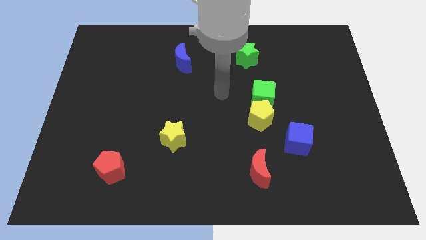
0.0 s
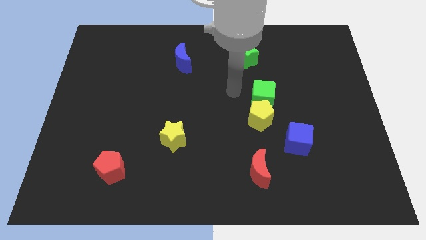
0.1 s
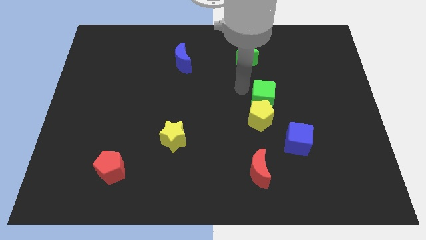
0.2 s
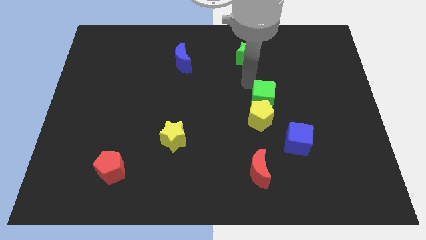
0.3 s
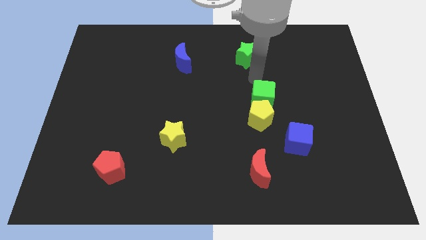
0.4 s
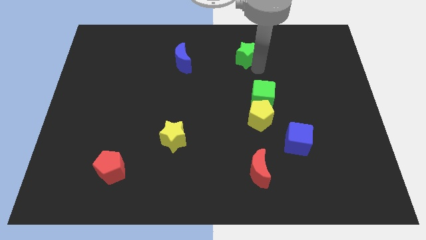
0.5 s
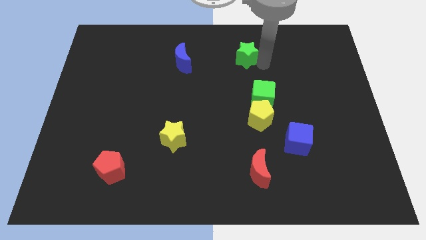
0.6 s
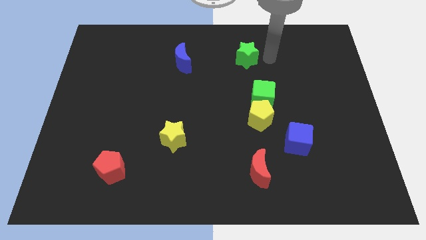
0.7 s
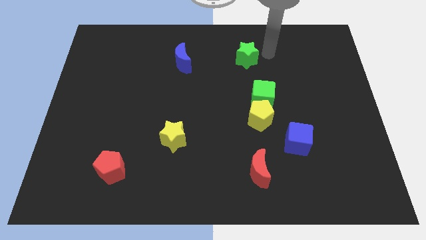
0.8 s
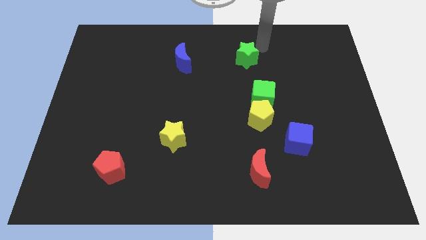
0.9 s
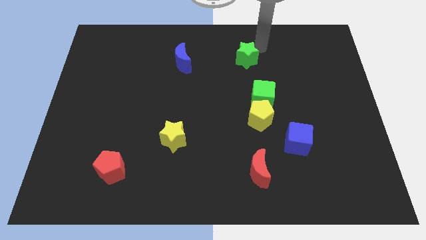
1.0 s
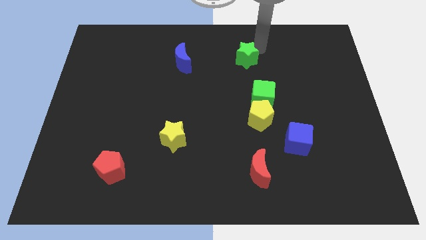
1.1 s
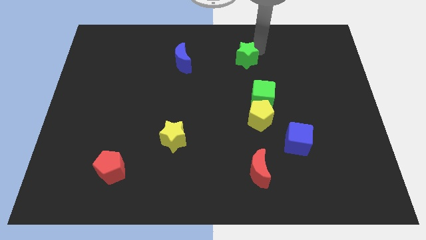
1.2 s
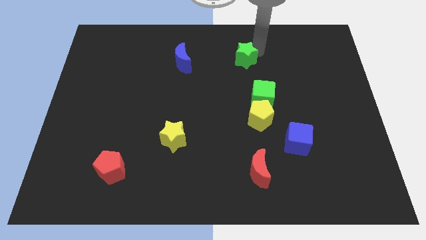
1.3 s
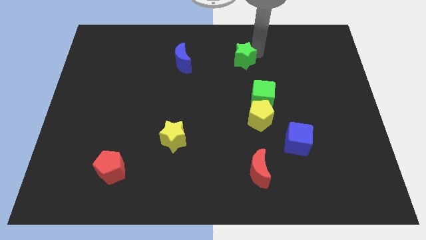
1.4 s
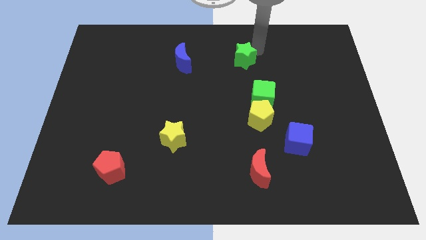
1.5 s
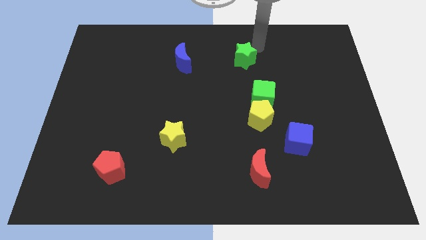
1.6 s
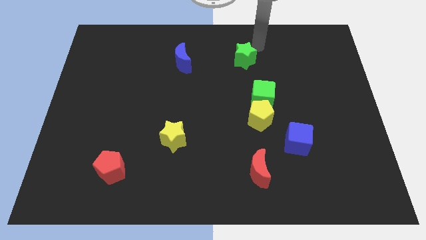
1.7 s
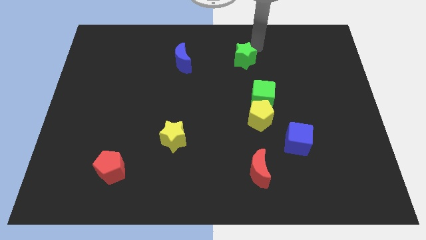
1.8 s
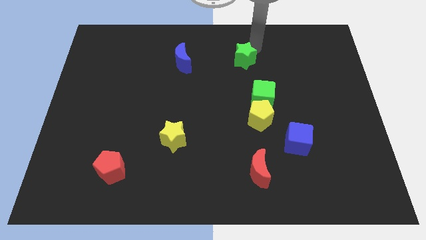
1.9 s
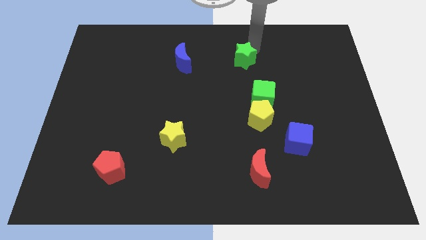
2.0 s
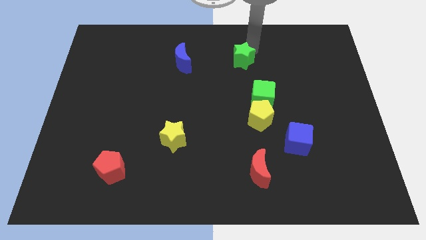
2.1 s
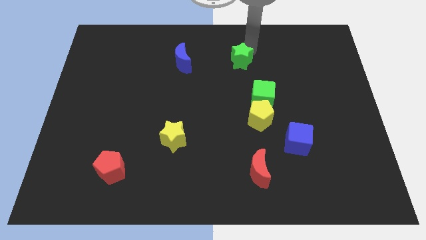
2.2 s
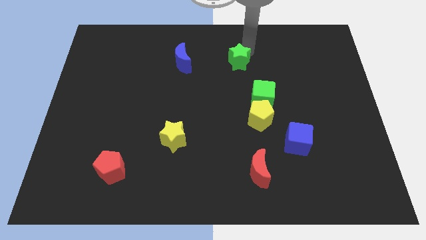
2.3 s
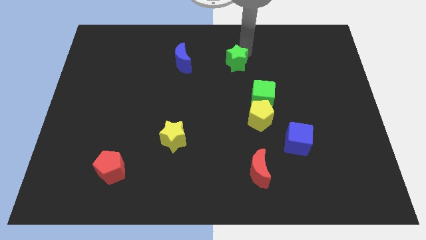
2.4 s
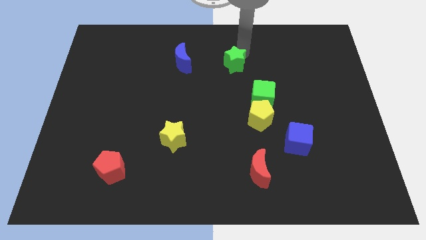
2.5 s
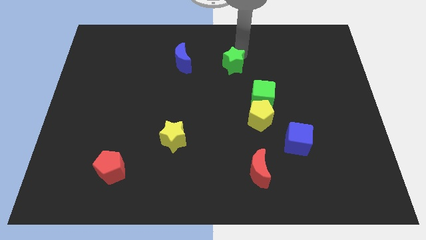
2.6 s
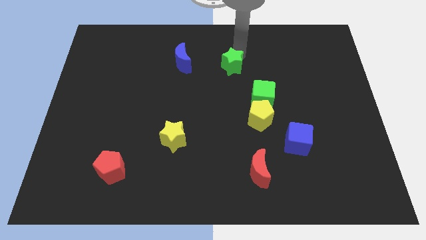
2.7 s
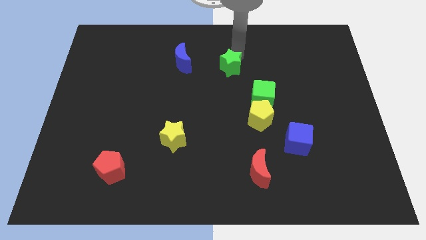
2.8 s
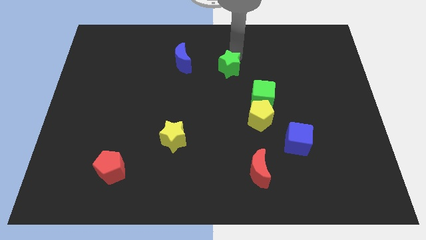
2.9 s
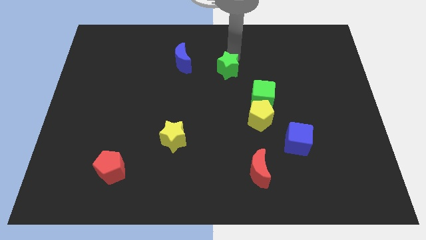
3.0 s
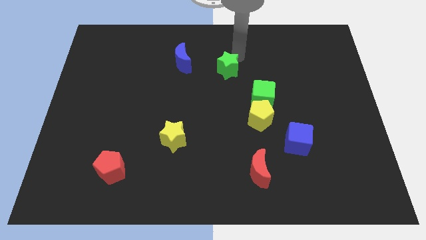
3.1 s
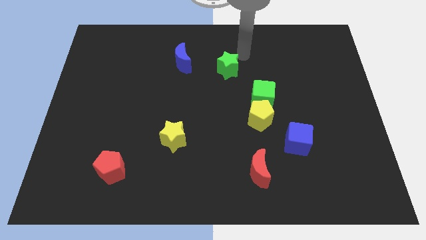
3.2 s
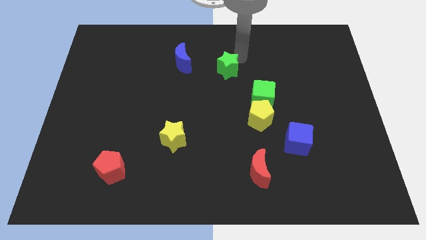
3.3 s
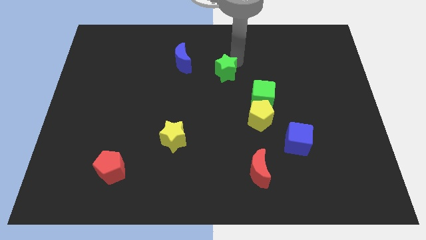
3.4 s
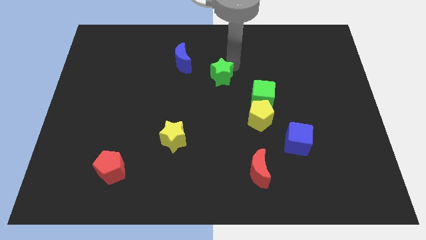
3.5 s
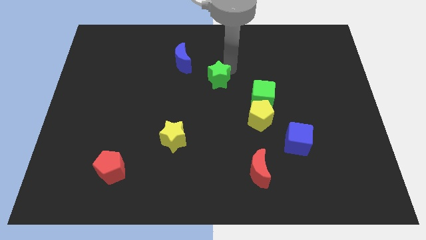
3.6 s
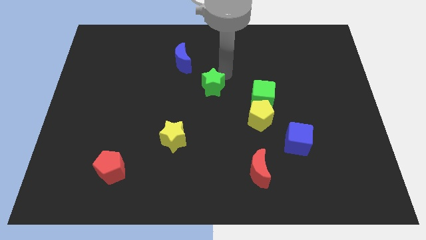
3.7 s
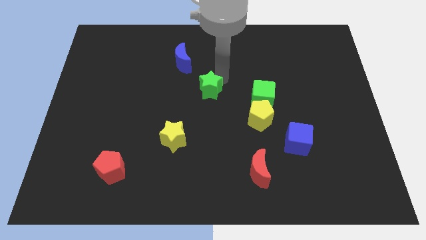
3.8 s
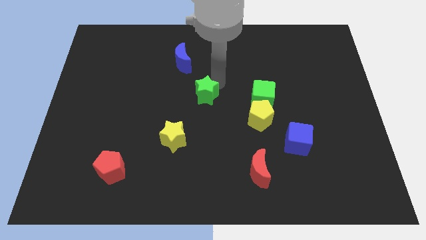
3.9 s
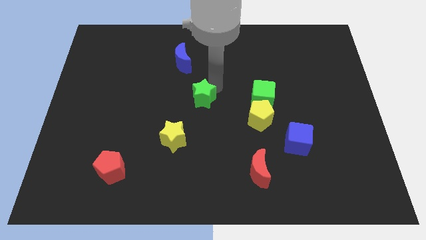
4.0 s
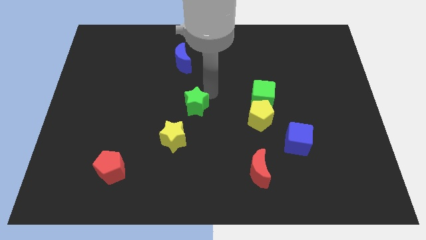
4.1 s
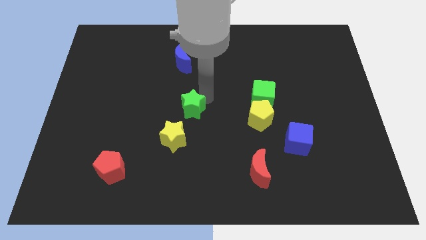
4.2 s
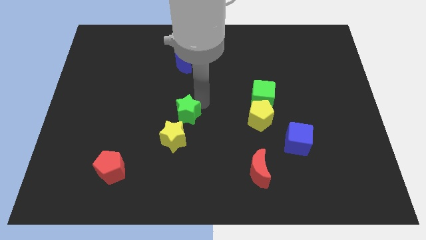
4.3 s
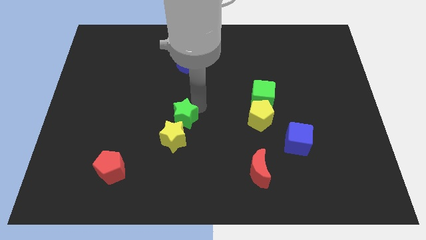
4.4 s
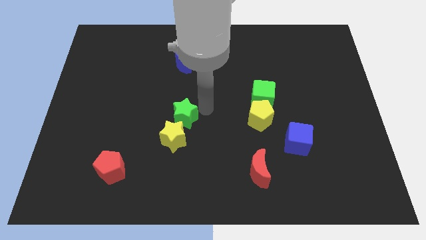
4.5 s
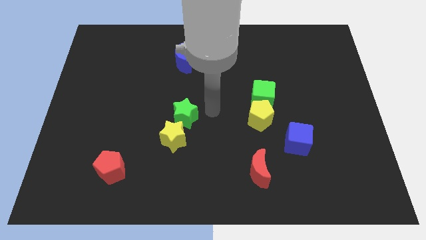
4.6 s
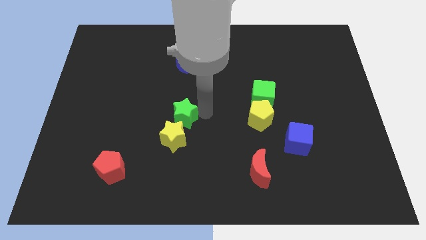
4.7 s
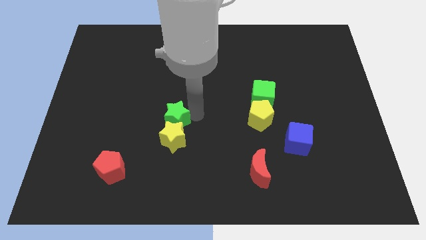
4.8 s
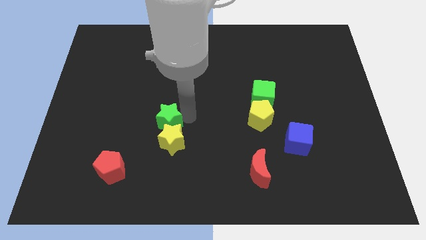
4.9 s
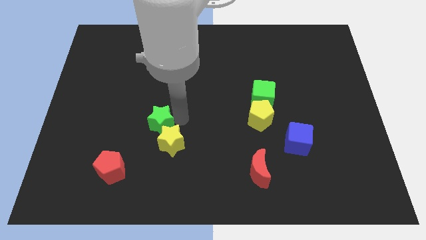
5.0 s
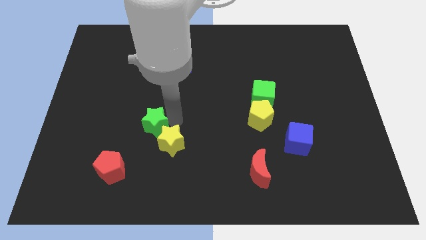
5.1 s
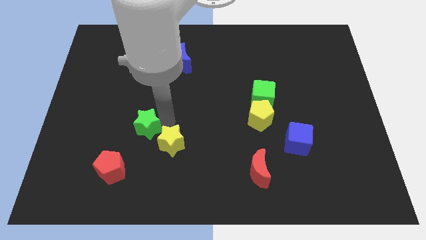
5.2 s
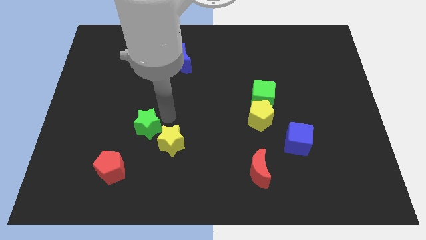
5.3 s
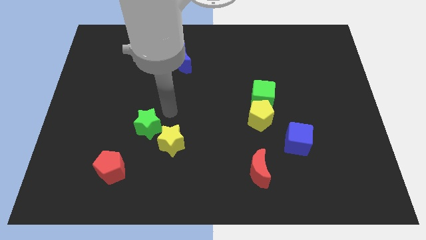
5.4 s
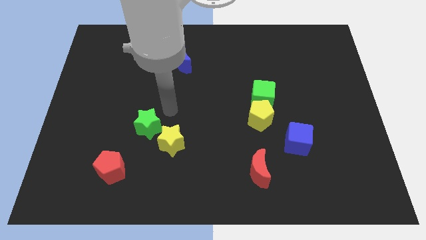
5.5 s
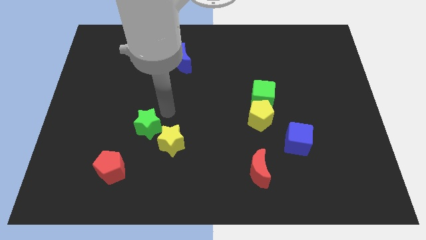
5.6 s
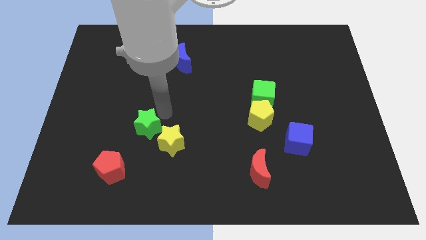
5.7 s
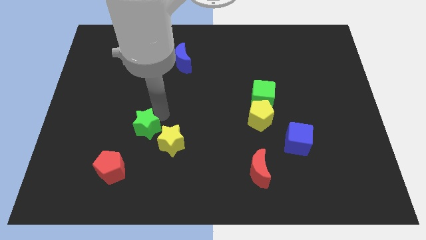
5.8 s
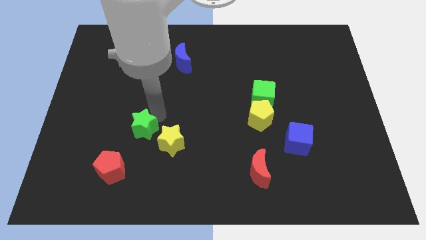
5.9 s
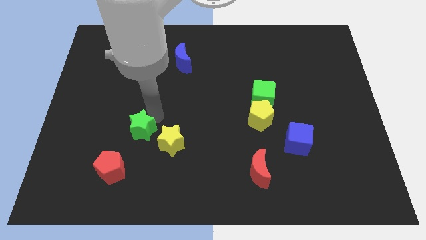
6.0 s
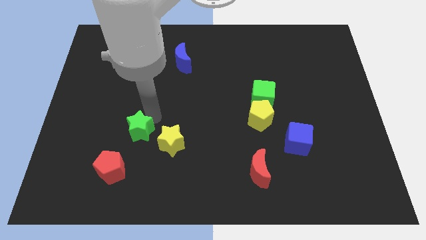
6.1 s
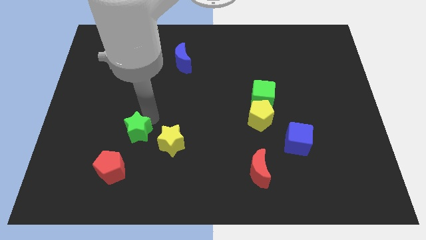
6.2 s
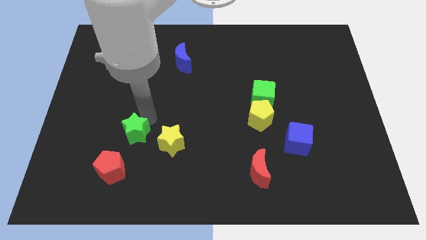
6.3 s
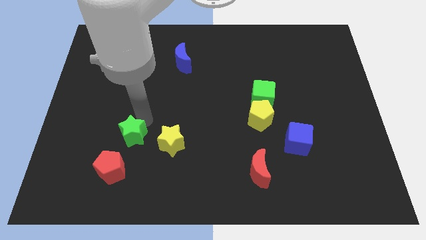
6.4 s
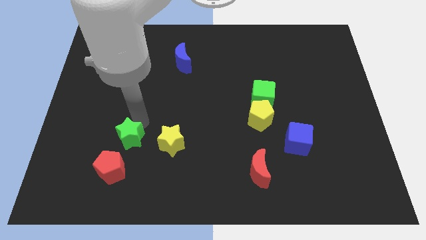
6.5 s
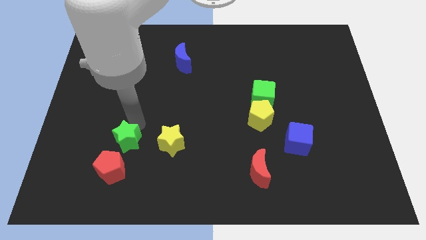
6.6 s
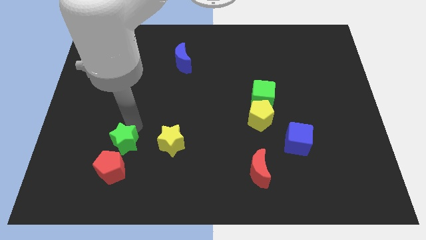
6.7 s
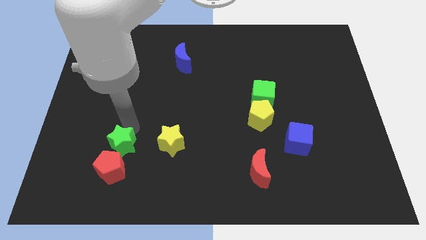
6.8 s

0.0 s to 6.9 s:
push the green star next to the red pentagon

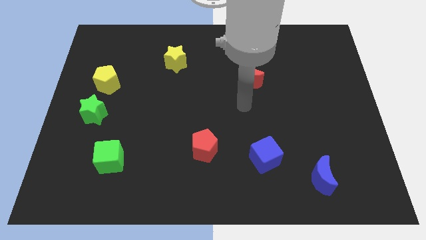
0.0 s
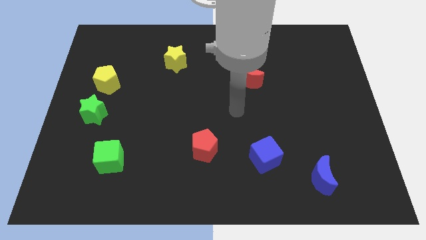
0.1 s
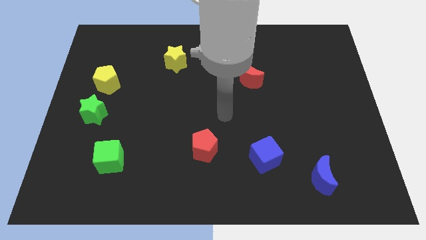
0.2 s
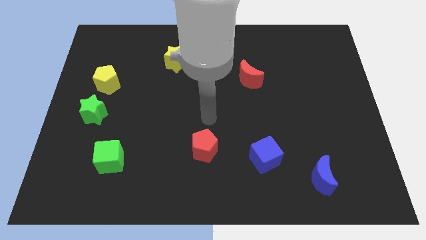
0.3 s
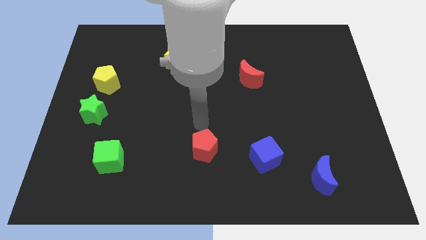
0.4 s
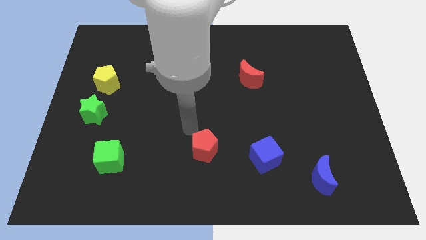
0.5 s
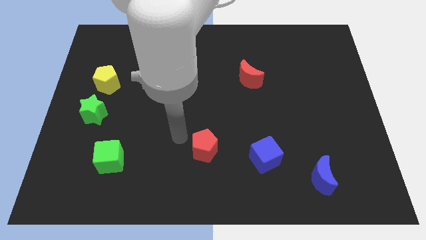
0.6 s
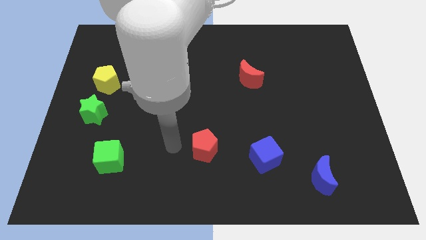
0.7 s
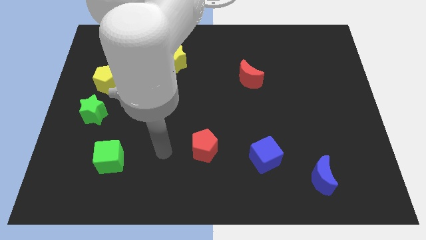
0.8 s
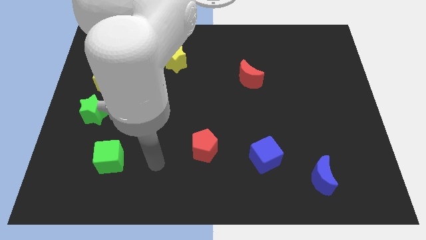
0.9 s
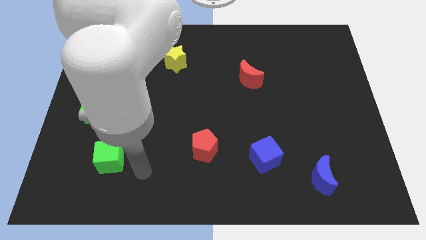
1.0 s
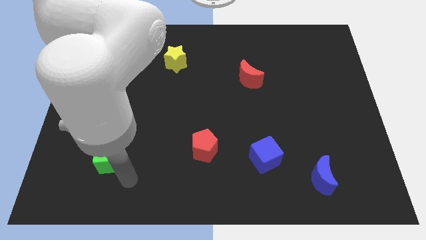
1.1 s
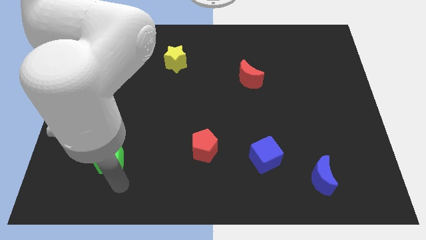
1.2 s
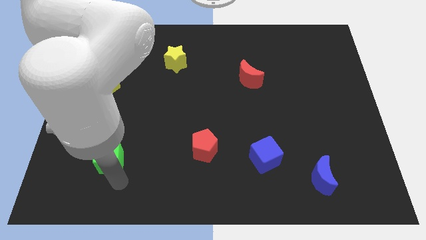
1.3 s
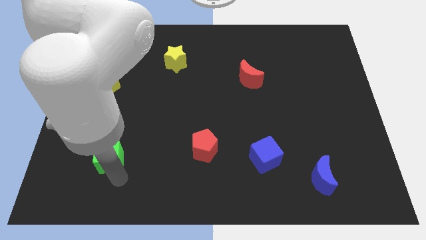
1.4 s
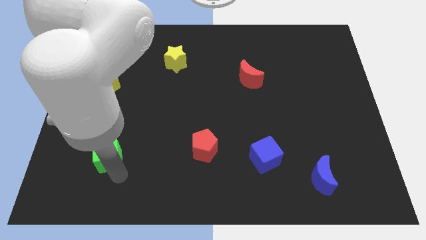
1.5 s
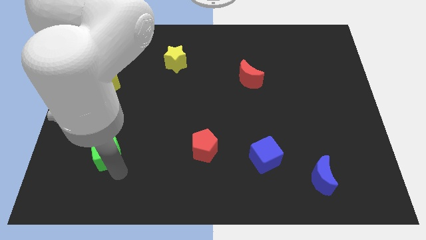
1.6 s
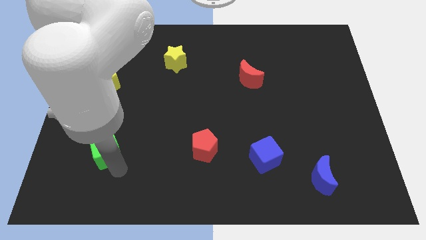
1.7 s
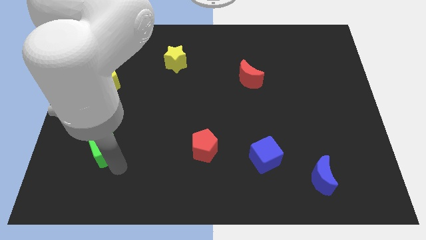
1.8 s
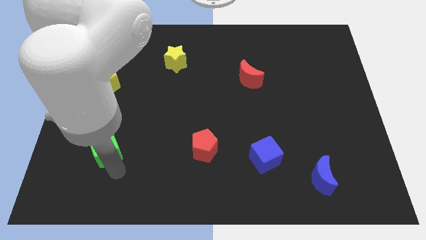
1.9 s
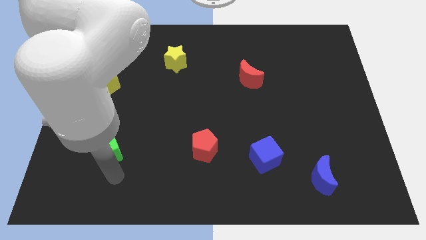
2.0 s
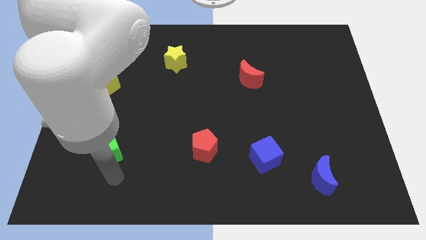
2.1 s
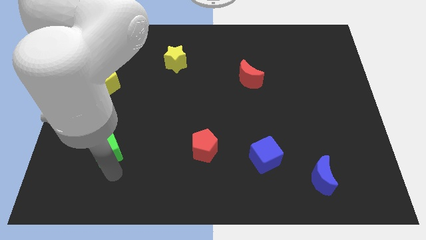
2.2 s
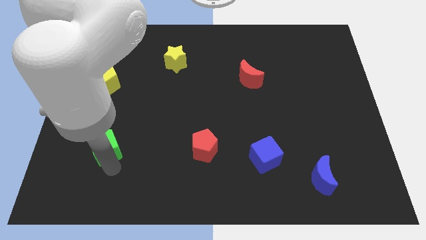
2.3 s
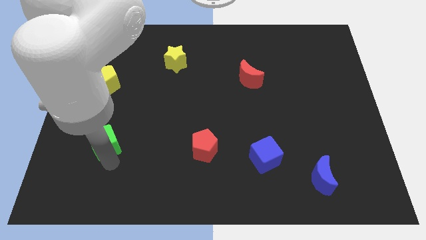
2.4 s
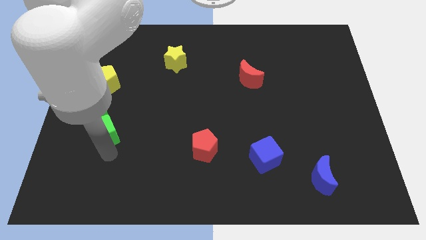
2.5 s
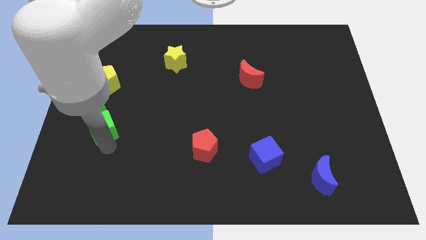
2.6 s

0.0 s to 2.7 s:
slide the green cube close to the green star
